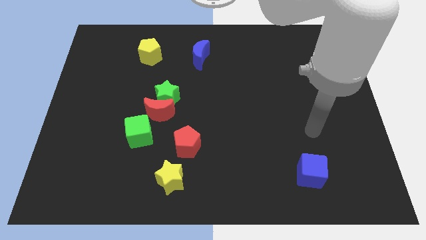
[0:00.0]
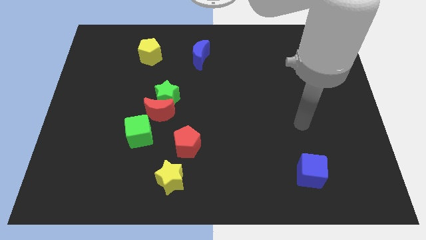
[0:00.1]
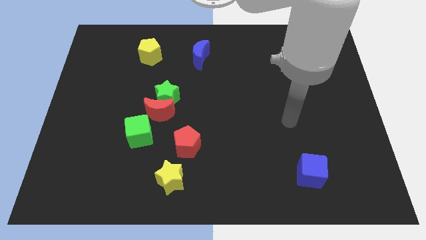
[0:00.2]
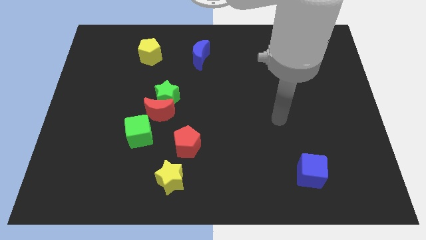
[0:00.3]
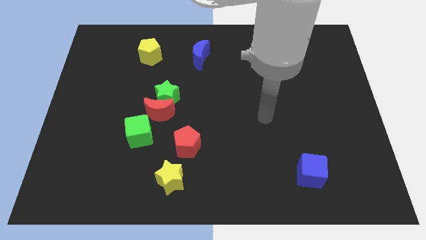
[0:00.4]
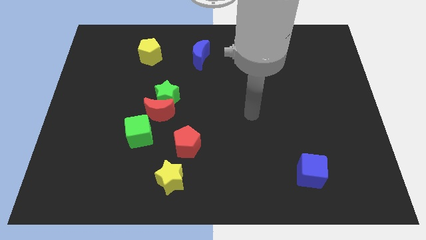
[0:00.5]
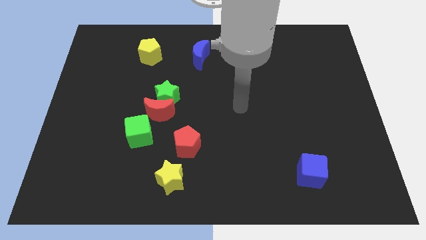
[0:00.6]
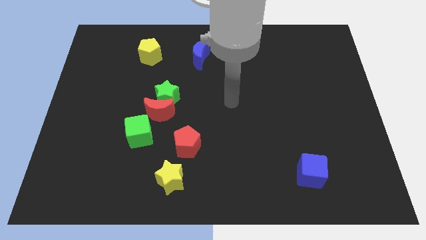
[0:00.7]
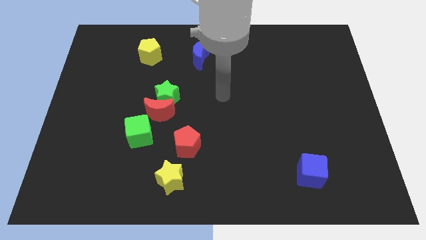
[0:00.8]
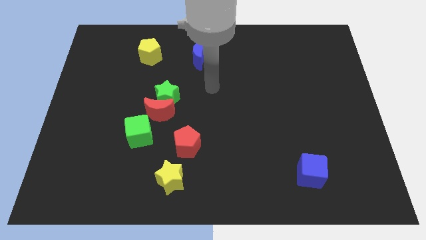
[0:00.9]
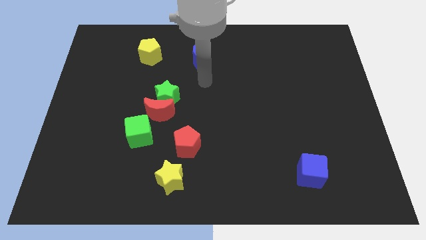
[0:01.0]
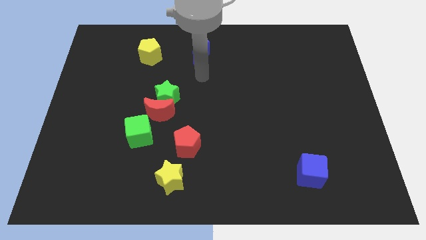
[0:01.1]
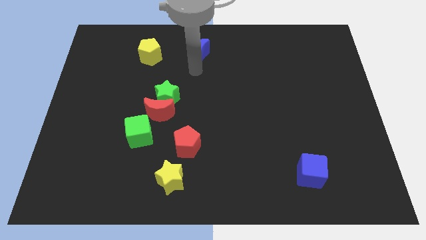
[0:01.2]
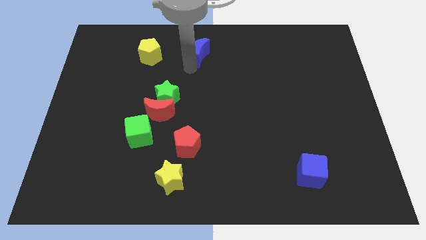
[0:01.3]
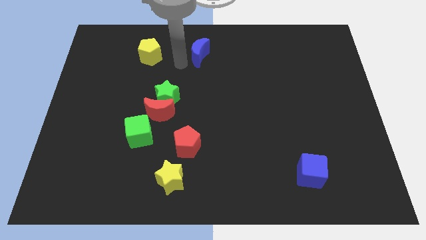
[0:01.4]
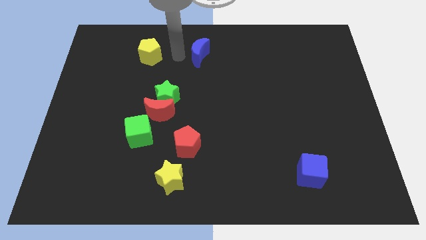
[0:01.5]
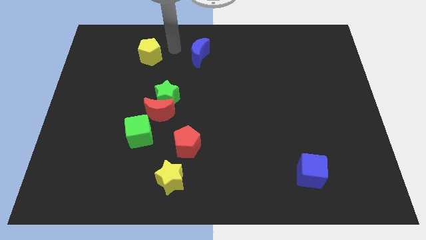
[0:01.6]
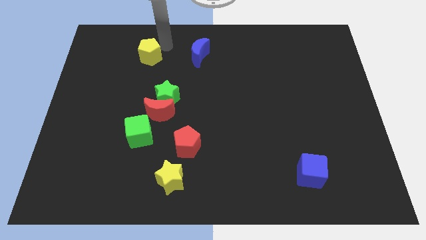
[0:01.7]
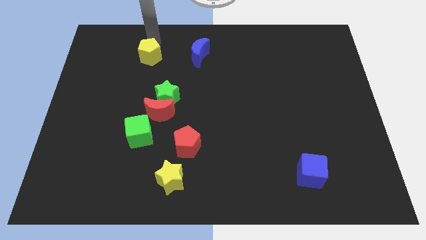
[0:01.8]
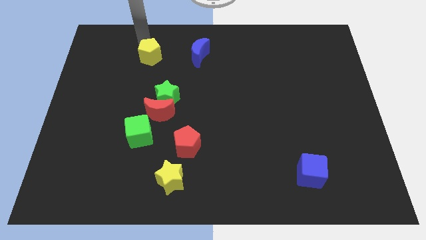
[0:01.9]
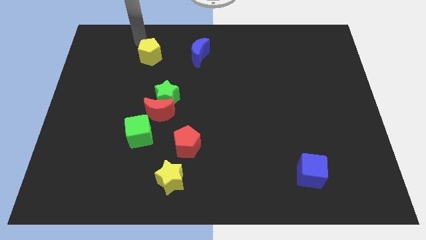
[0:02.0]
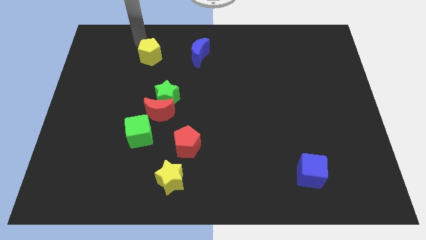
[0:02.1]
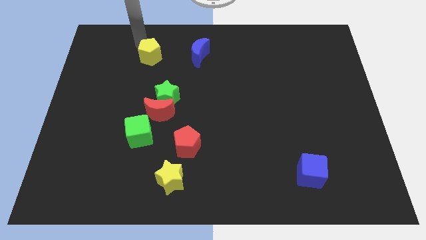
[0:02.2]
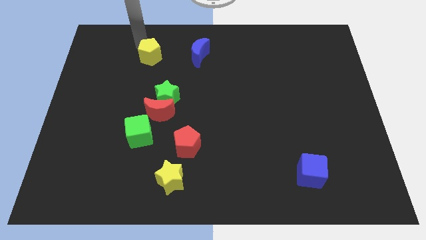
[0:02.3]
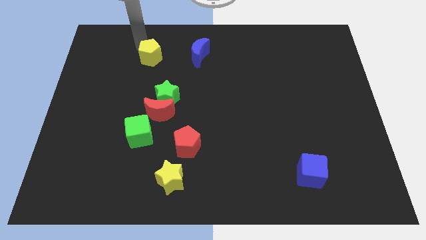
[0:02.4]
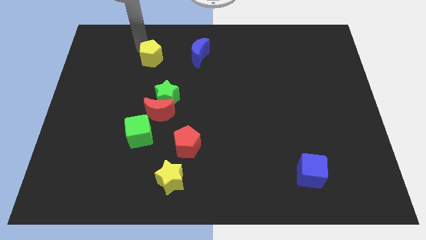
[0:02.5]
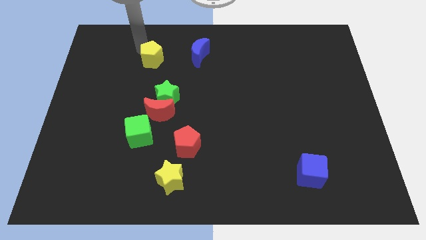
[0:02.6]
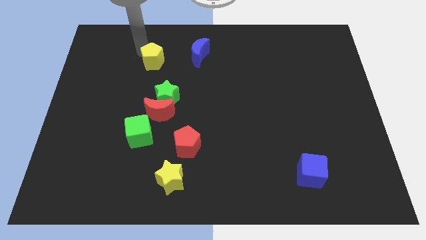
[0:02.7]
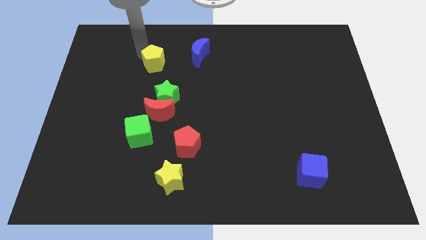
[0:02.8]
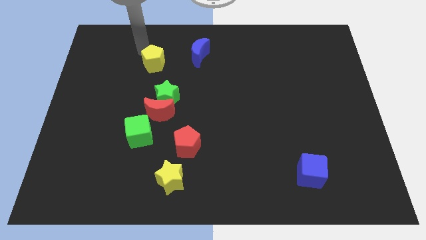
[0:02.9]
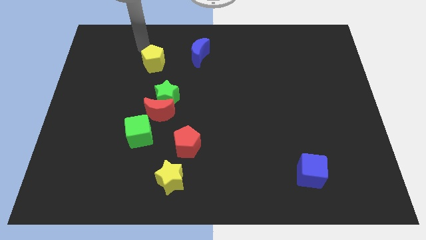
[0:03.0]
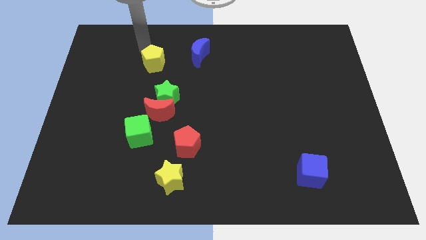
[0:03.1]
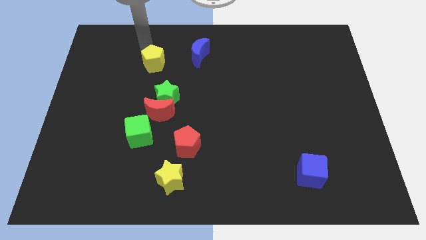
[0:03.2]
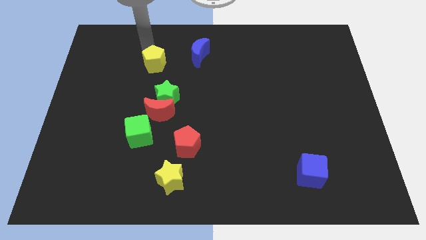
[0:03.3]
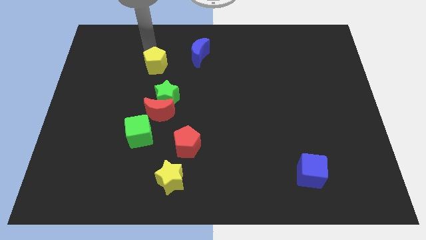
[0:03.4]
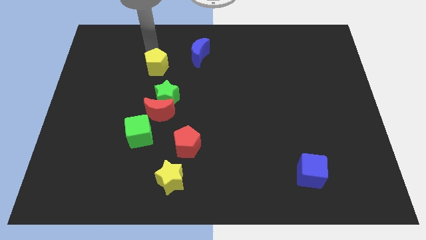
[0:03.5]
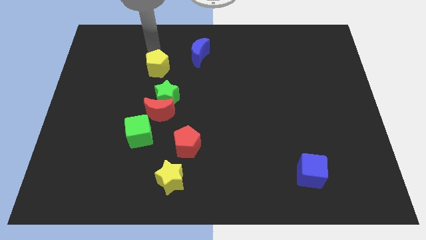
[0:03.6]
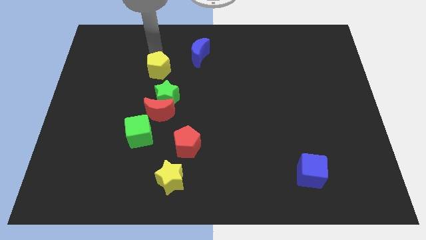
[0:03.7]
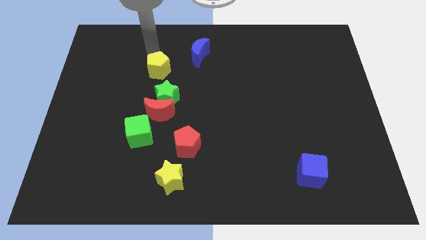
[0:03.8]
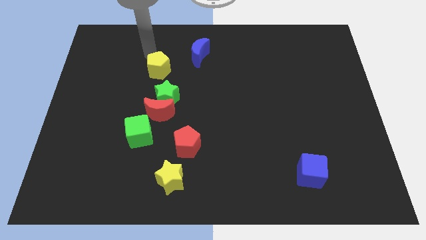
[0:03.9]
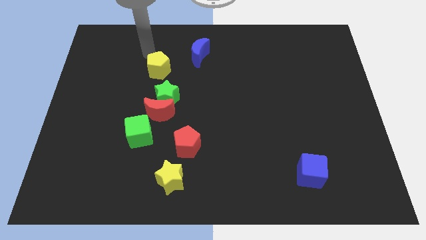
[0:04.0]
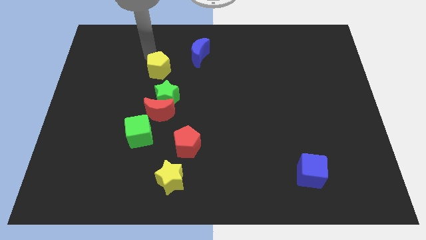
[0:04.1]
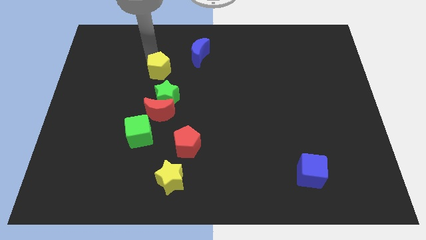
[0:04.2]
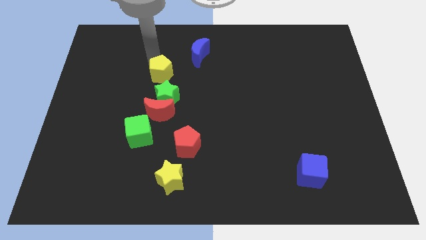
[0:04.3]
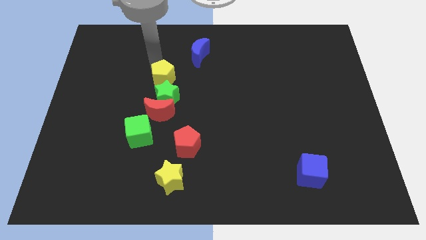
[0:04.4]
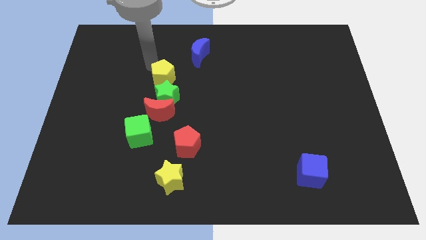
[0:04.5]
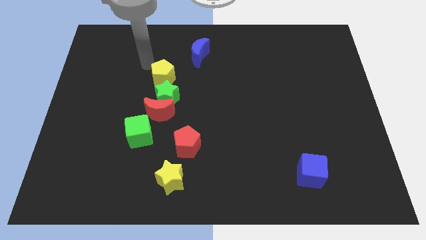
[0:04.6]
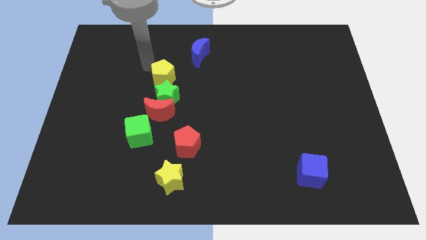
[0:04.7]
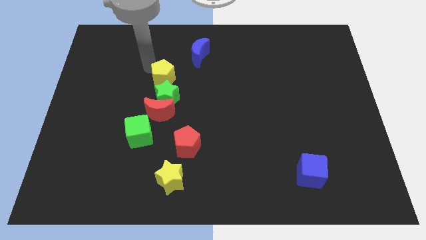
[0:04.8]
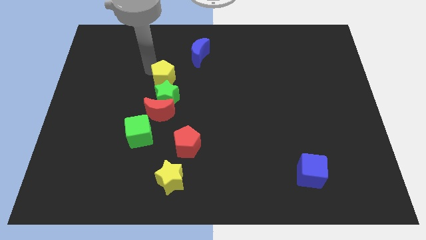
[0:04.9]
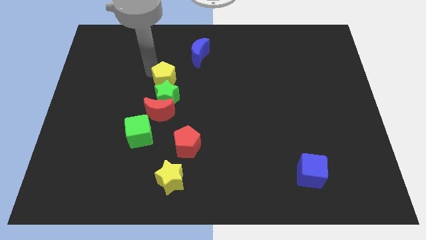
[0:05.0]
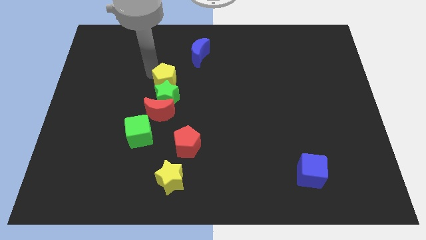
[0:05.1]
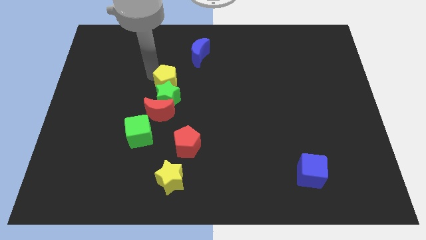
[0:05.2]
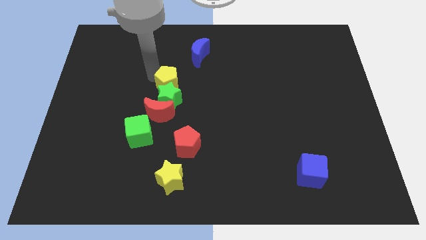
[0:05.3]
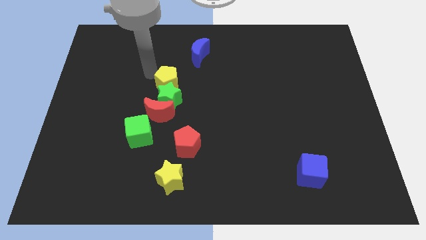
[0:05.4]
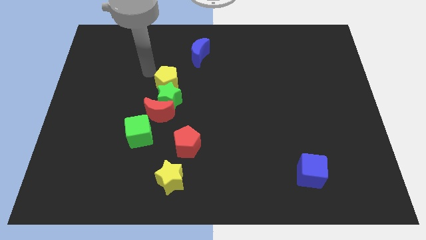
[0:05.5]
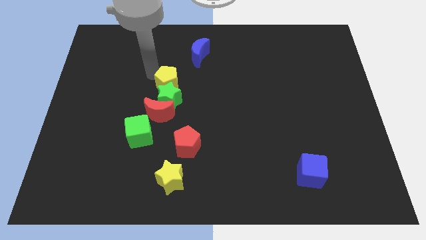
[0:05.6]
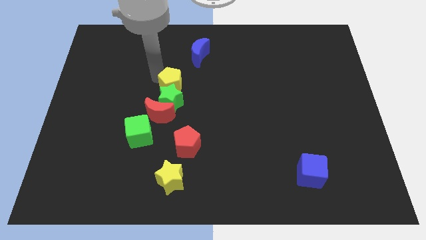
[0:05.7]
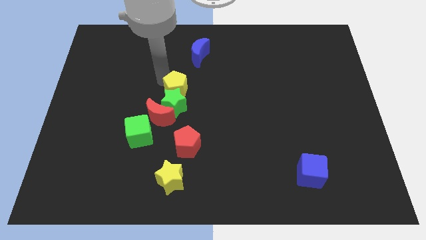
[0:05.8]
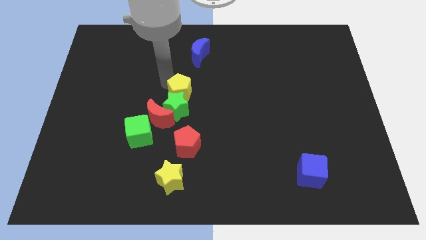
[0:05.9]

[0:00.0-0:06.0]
slide the yellow pentagon to the top of the red pentagon

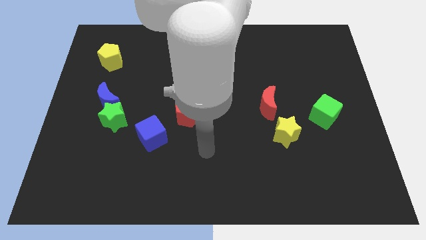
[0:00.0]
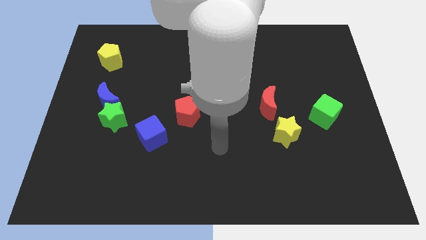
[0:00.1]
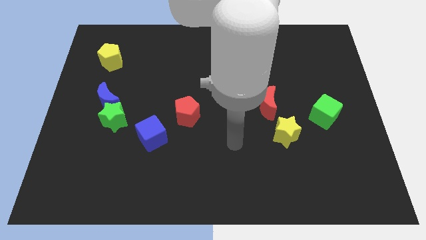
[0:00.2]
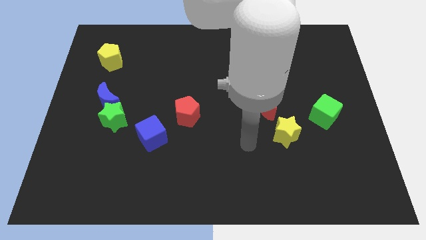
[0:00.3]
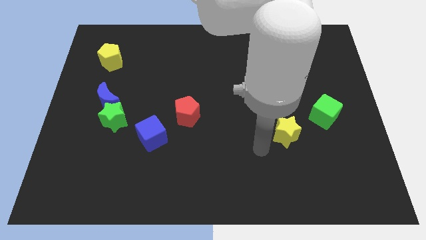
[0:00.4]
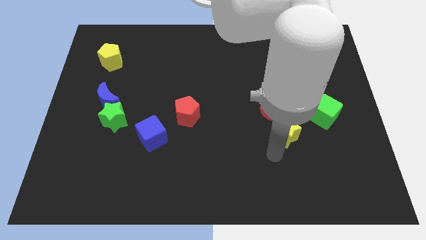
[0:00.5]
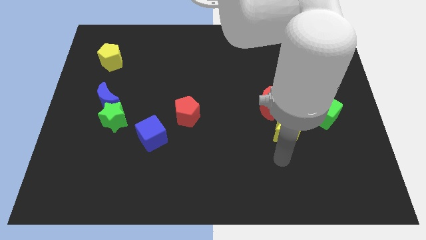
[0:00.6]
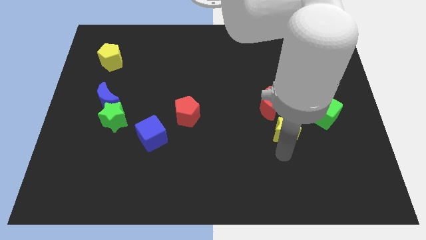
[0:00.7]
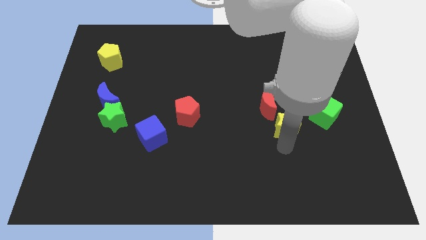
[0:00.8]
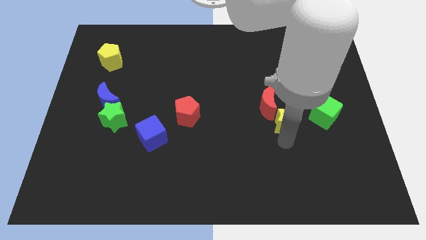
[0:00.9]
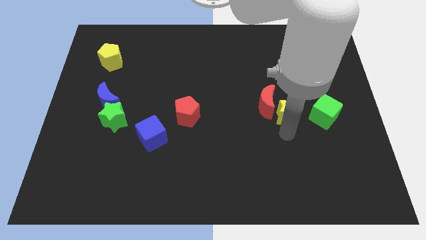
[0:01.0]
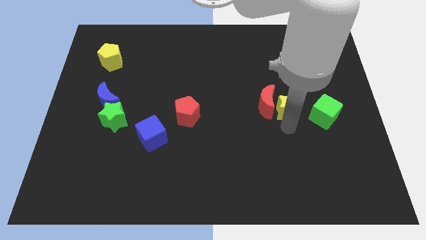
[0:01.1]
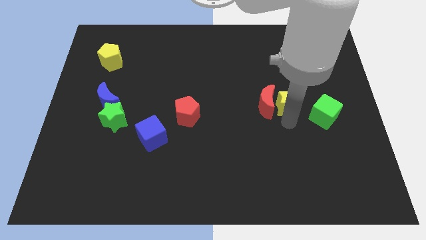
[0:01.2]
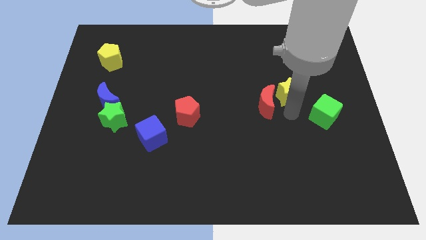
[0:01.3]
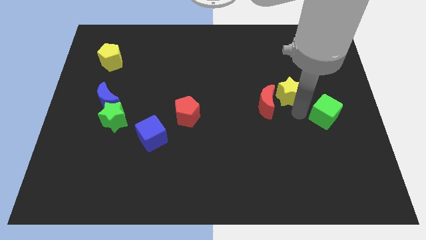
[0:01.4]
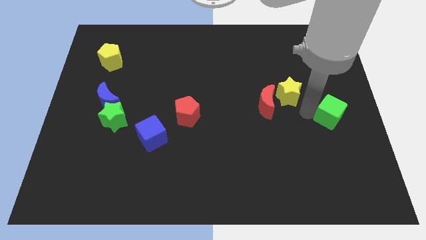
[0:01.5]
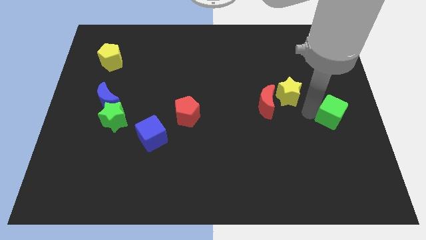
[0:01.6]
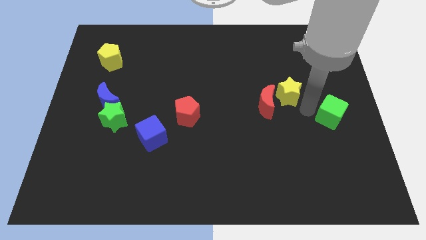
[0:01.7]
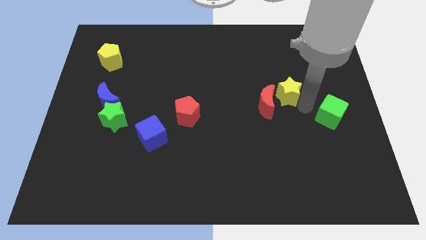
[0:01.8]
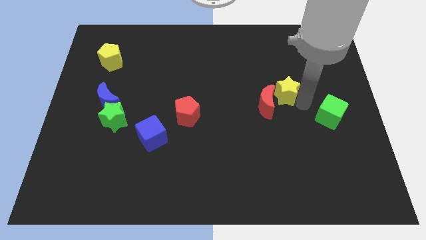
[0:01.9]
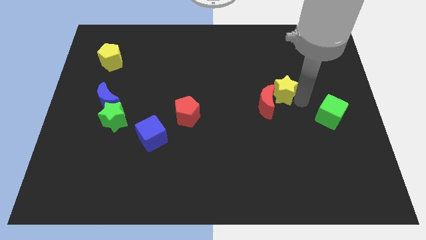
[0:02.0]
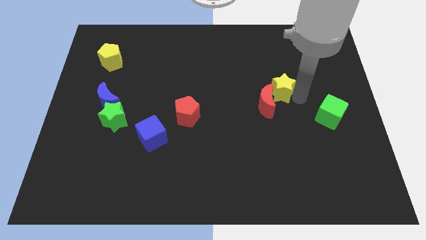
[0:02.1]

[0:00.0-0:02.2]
move the yellow star to the top side of the red moon
